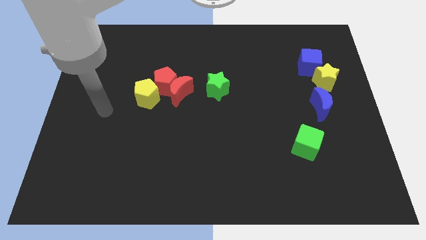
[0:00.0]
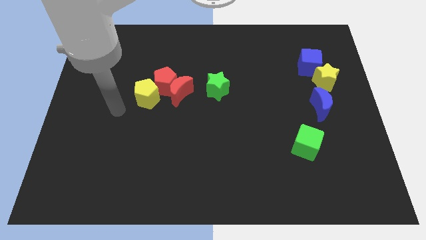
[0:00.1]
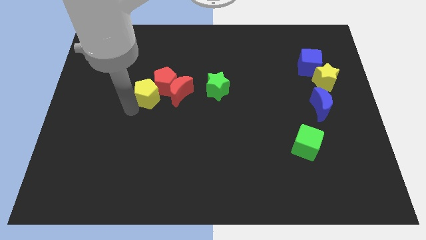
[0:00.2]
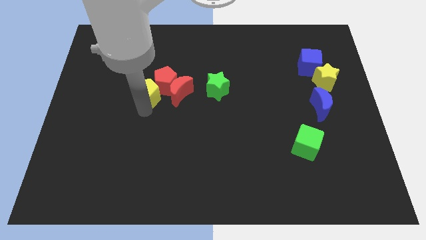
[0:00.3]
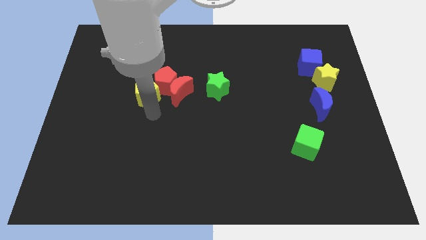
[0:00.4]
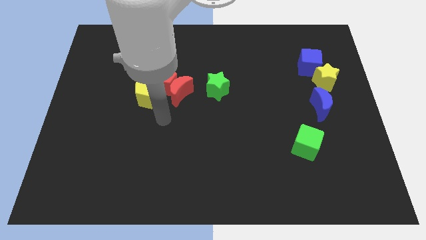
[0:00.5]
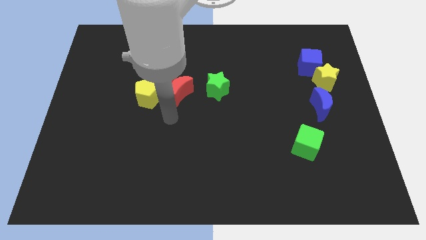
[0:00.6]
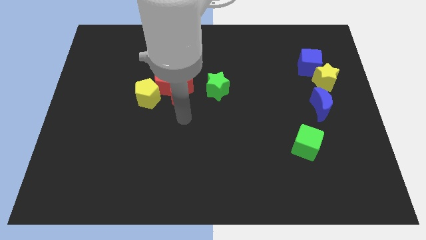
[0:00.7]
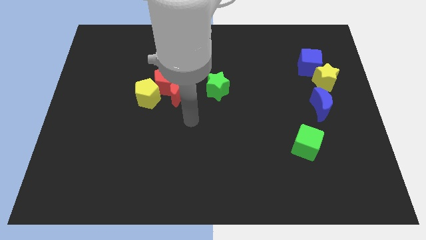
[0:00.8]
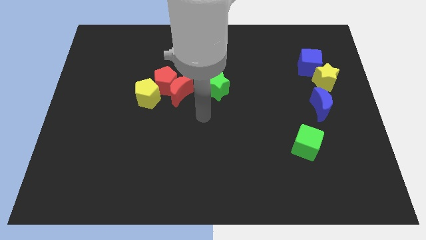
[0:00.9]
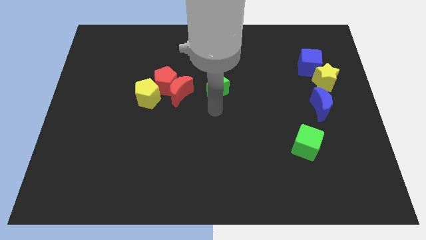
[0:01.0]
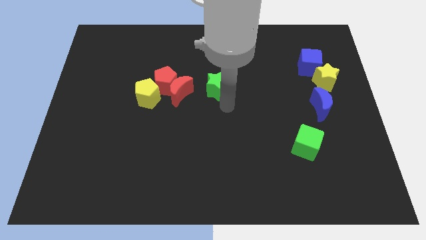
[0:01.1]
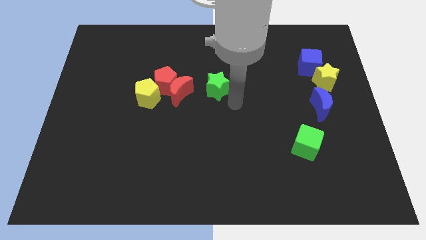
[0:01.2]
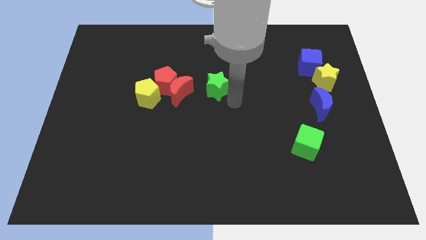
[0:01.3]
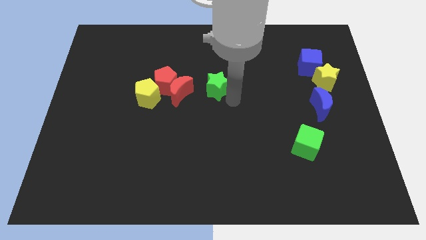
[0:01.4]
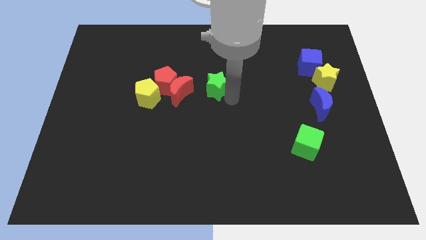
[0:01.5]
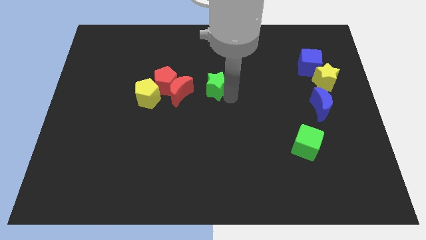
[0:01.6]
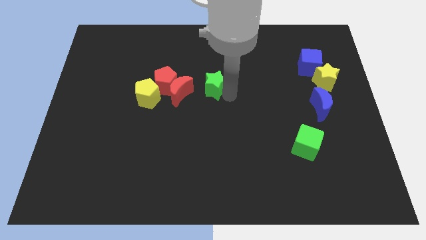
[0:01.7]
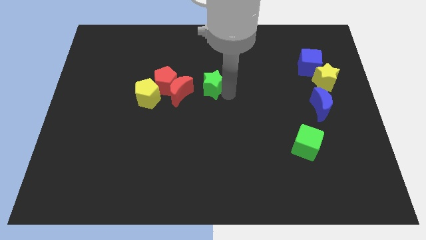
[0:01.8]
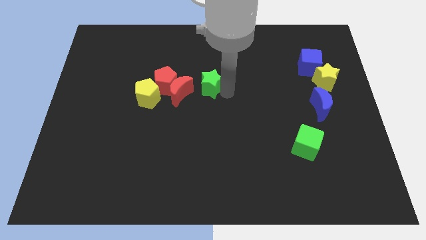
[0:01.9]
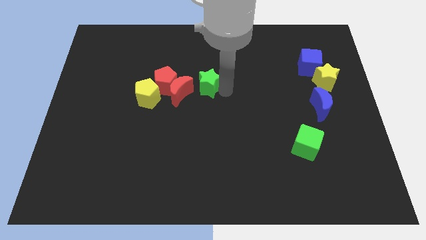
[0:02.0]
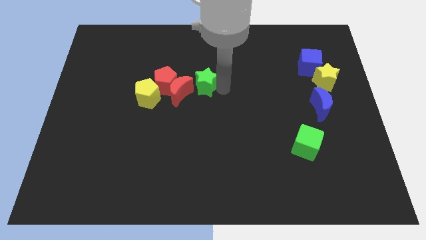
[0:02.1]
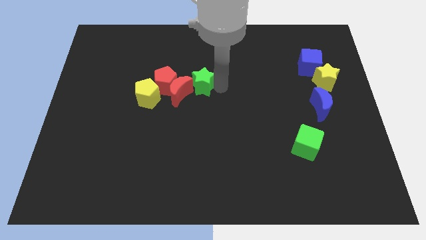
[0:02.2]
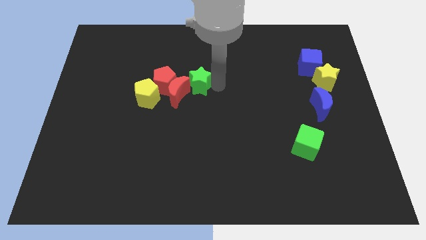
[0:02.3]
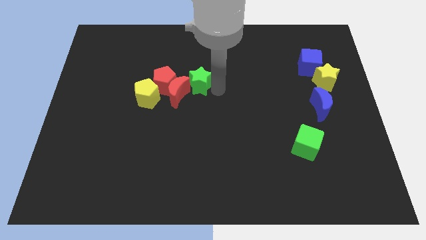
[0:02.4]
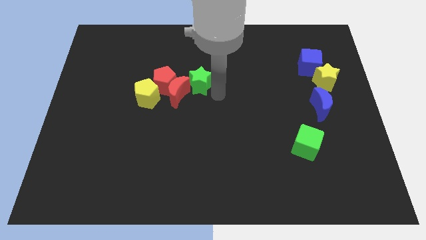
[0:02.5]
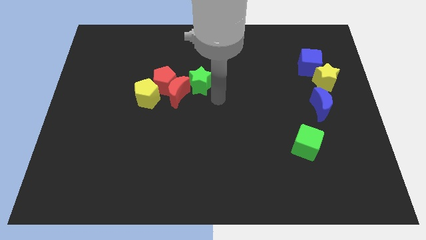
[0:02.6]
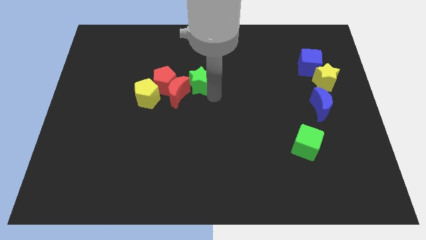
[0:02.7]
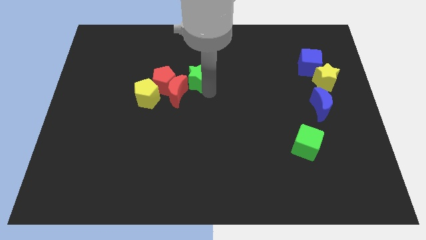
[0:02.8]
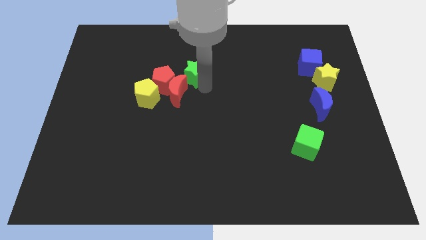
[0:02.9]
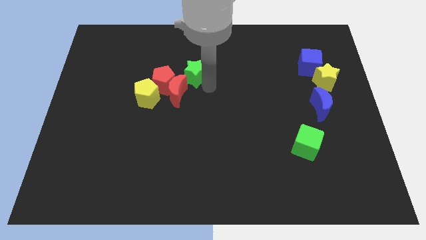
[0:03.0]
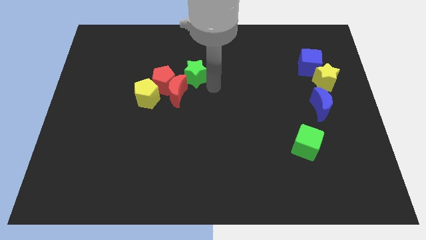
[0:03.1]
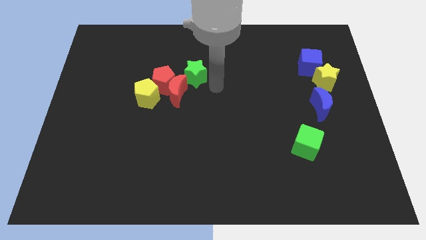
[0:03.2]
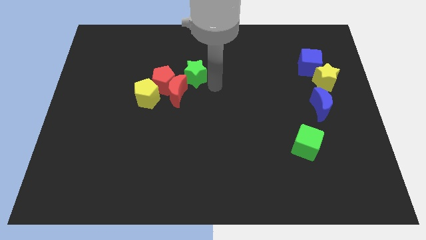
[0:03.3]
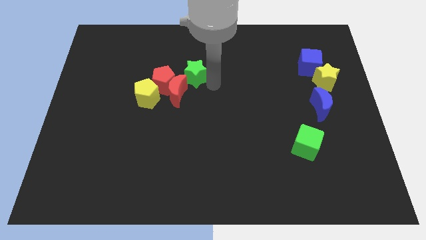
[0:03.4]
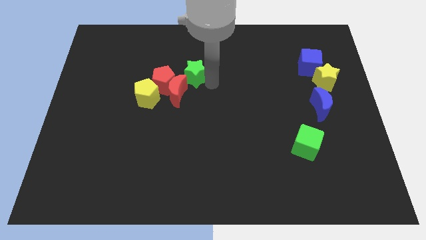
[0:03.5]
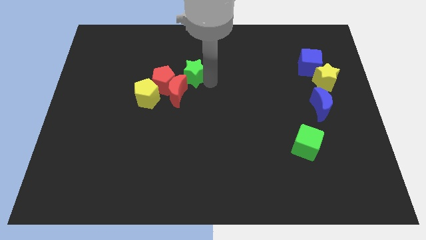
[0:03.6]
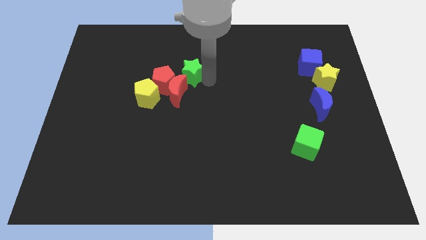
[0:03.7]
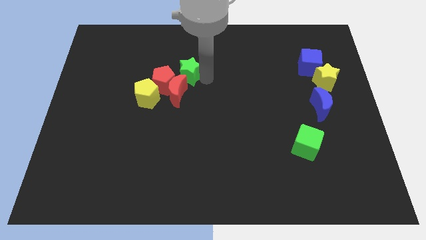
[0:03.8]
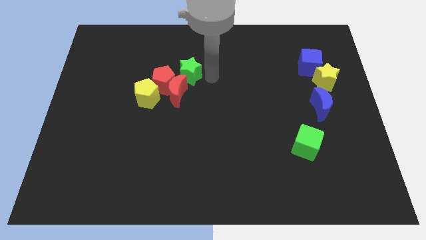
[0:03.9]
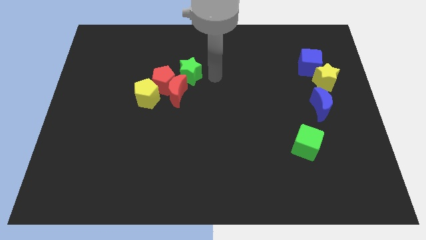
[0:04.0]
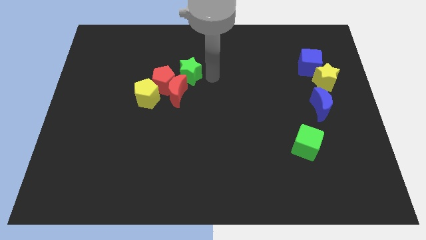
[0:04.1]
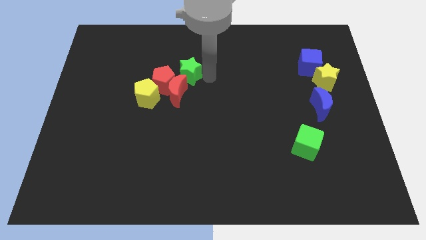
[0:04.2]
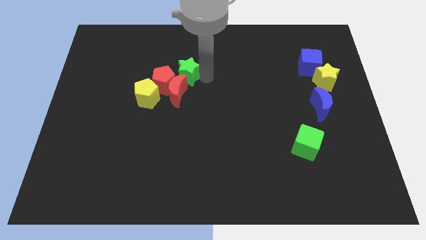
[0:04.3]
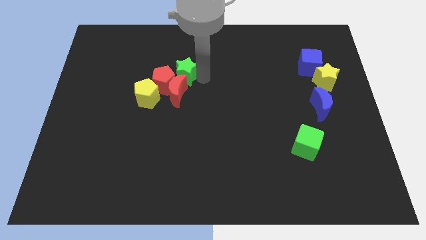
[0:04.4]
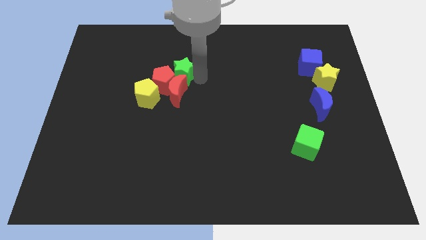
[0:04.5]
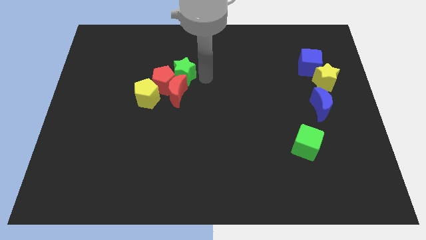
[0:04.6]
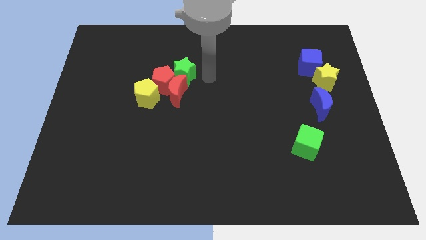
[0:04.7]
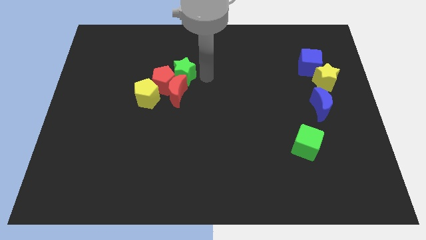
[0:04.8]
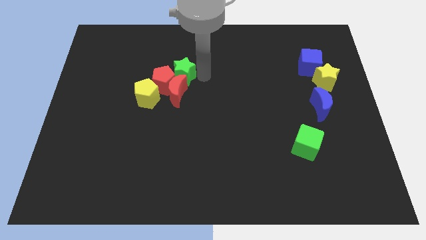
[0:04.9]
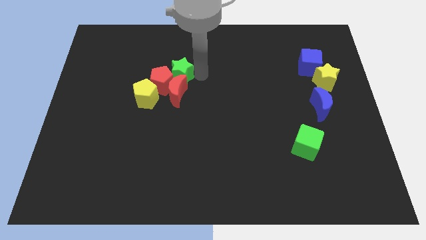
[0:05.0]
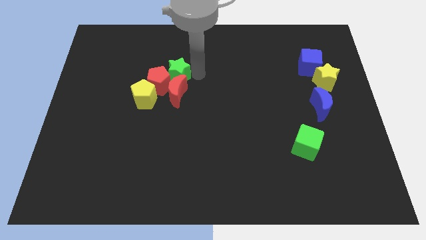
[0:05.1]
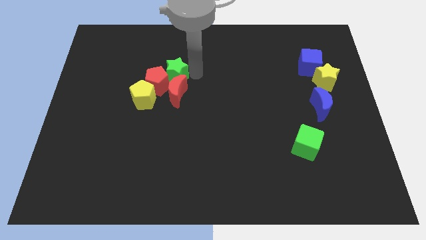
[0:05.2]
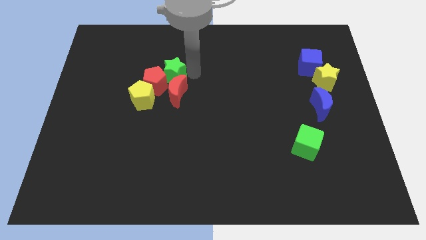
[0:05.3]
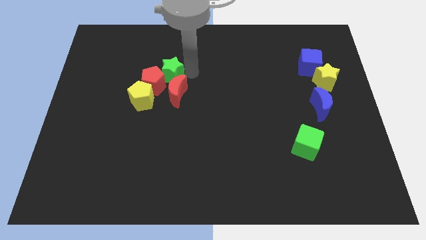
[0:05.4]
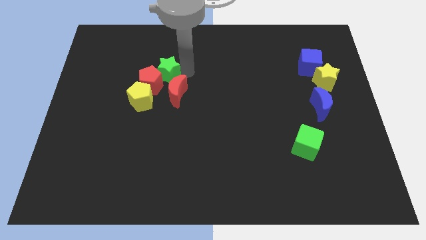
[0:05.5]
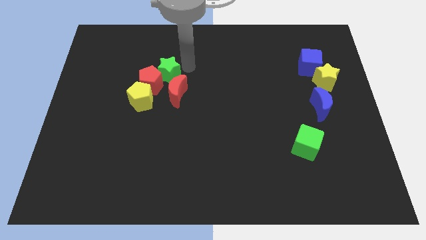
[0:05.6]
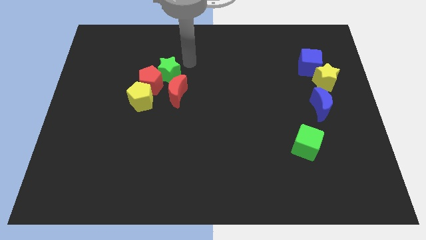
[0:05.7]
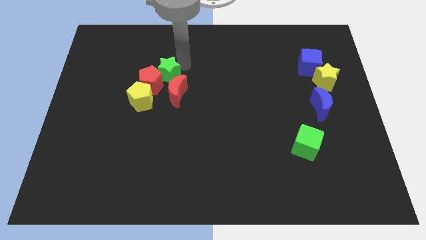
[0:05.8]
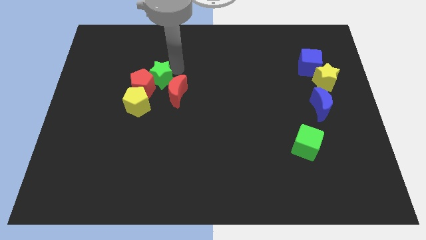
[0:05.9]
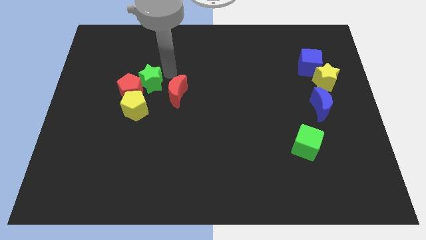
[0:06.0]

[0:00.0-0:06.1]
push the green star left of the red moon

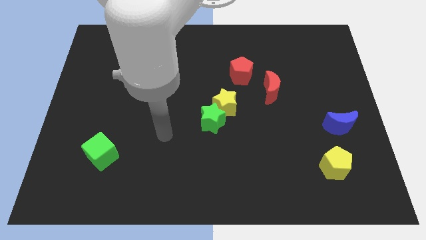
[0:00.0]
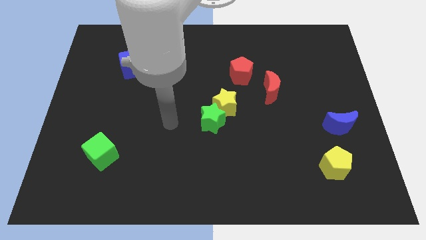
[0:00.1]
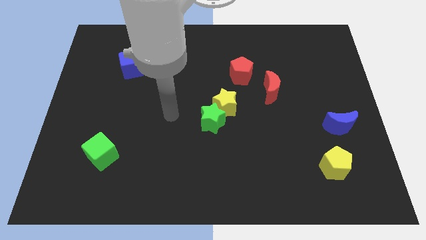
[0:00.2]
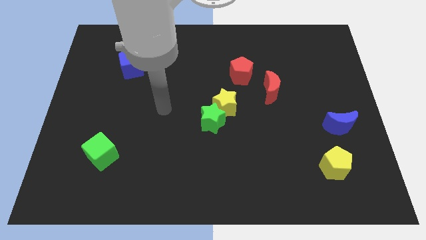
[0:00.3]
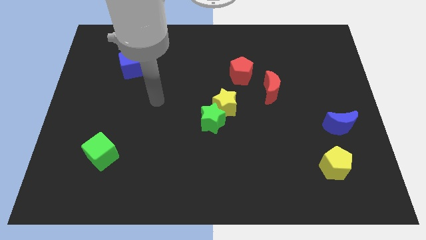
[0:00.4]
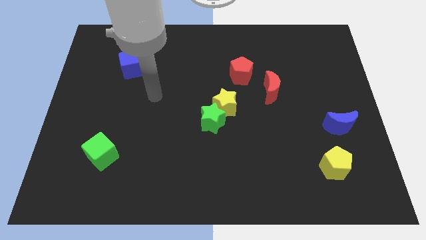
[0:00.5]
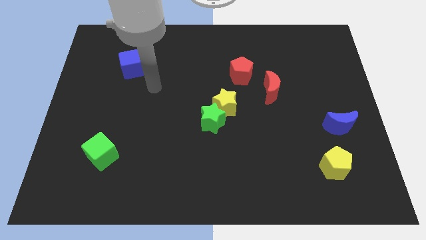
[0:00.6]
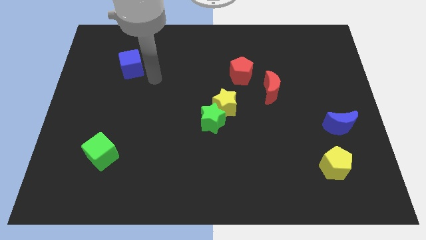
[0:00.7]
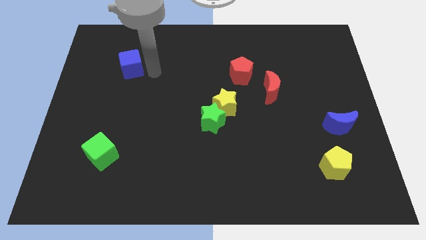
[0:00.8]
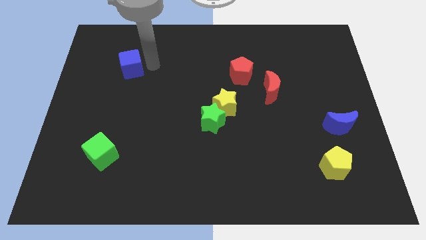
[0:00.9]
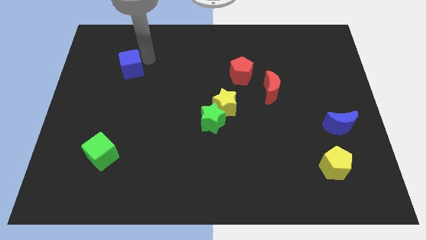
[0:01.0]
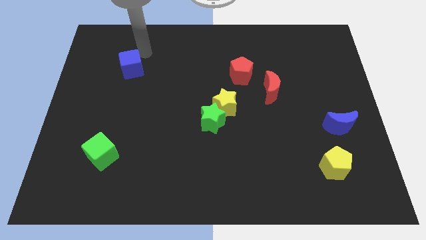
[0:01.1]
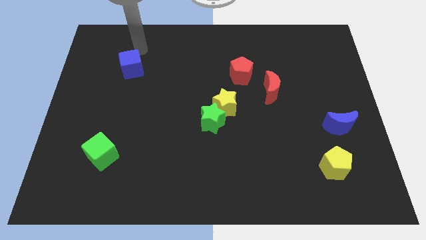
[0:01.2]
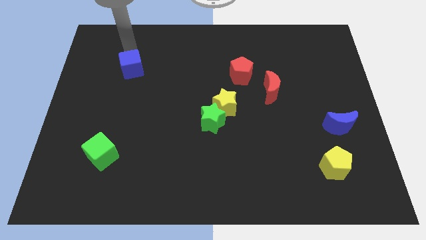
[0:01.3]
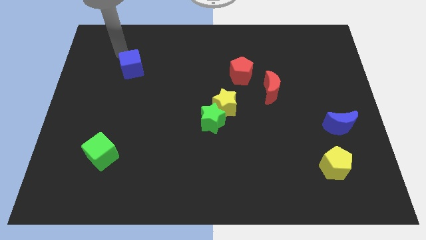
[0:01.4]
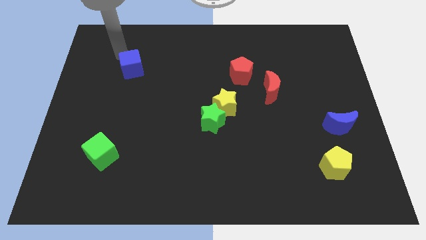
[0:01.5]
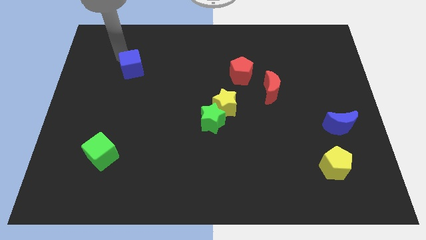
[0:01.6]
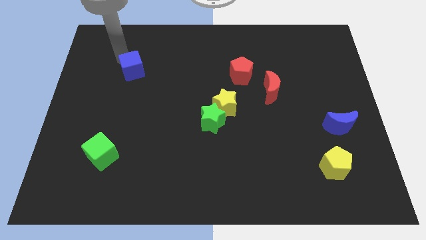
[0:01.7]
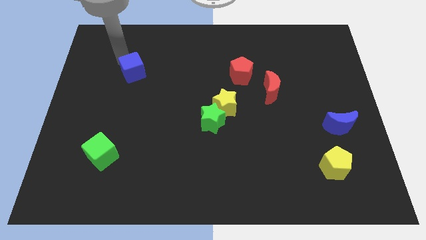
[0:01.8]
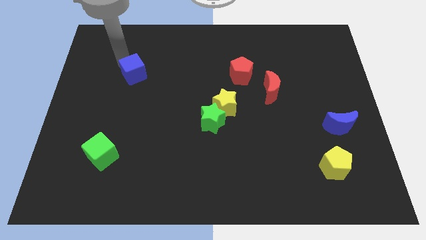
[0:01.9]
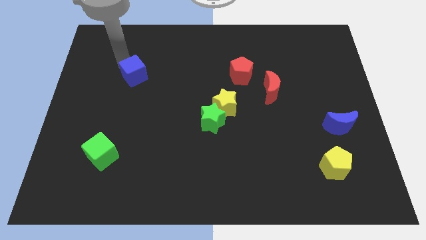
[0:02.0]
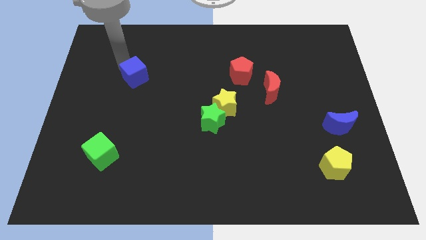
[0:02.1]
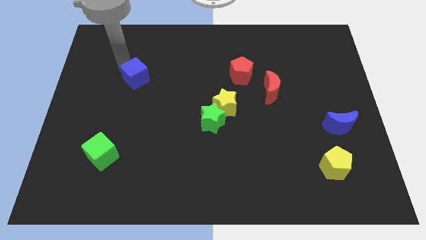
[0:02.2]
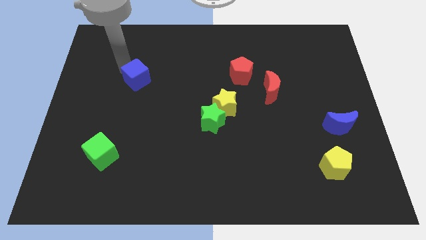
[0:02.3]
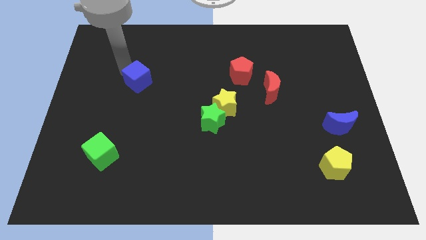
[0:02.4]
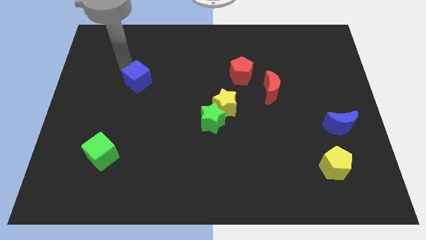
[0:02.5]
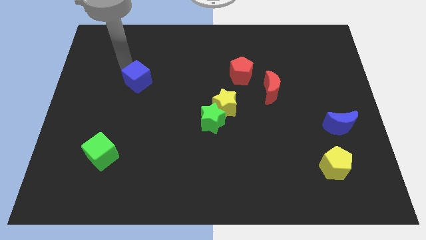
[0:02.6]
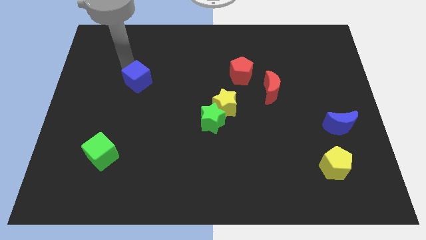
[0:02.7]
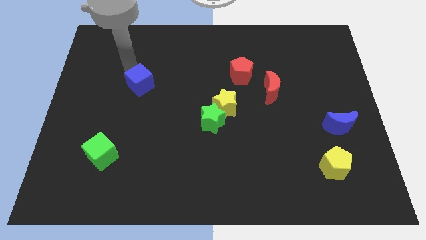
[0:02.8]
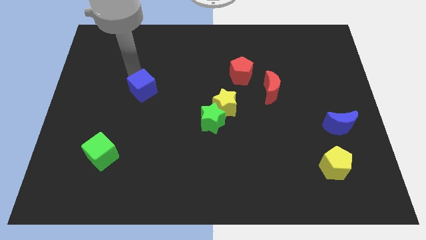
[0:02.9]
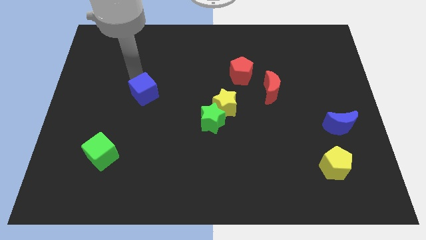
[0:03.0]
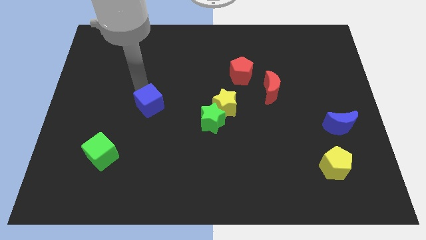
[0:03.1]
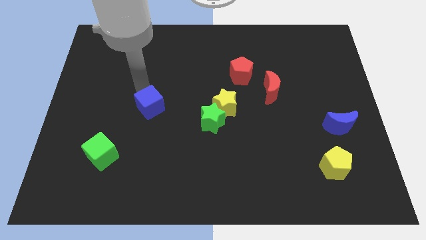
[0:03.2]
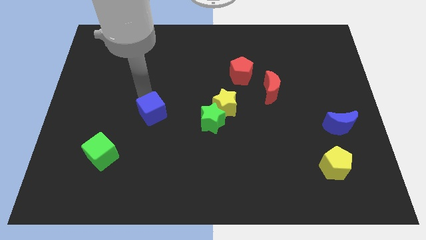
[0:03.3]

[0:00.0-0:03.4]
put the blue cube to the left side of the green star
